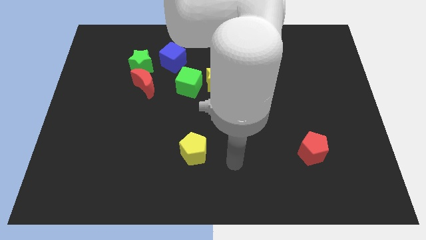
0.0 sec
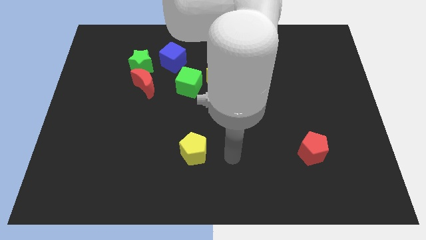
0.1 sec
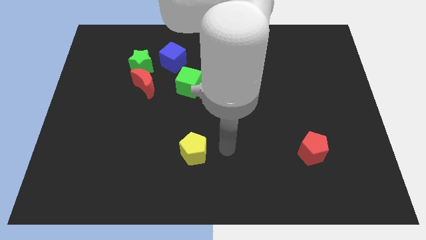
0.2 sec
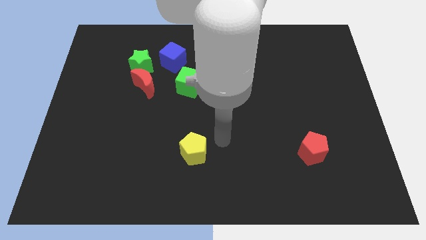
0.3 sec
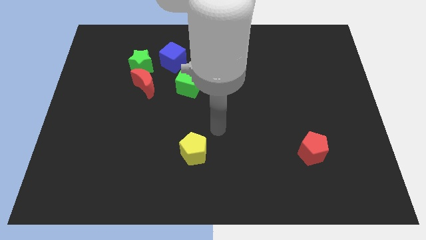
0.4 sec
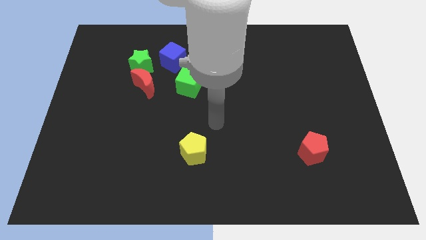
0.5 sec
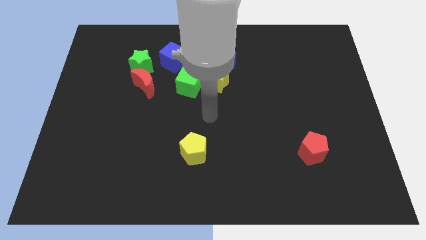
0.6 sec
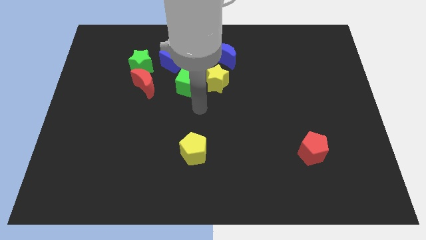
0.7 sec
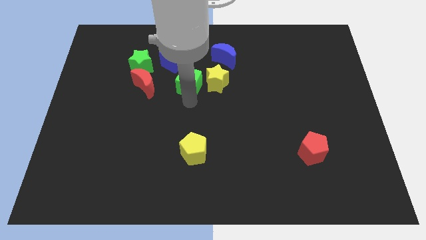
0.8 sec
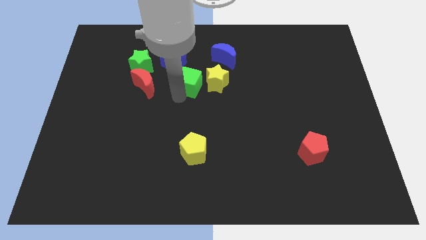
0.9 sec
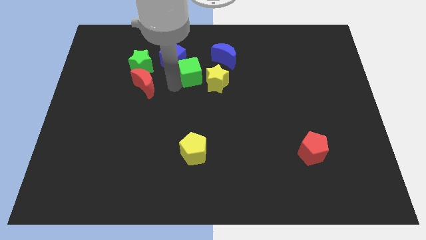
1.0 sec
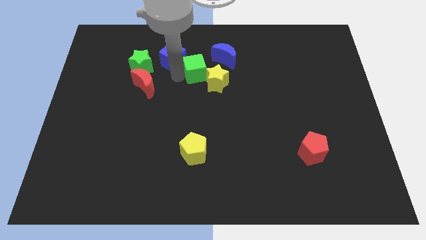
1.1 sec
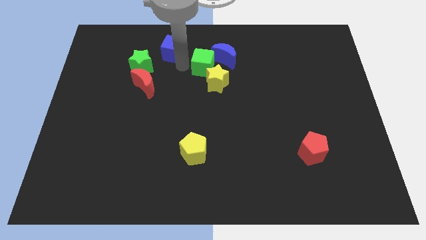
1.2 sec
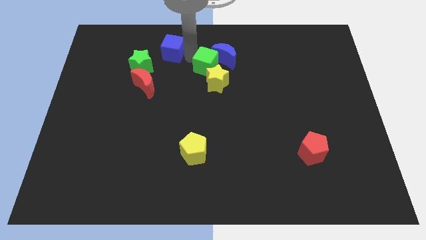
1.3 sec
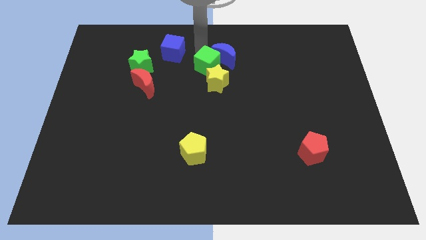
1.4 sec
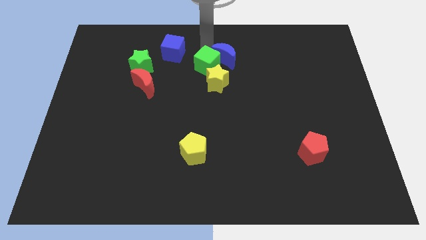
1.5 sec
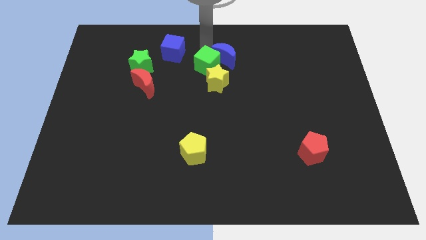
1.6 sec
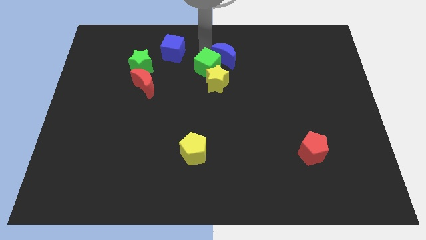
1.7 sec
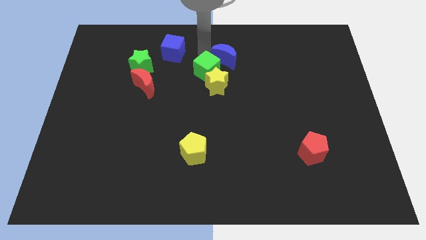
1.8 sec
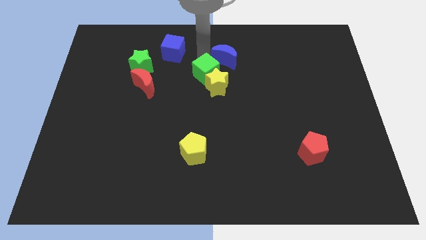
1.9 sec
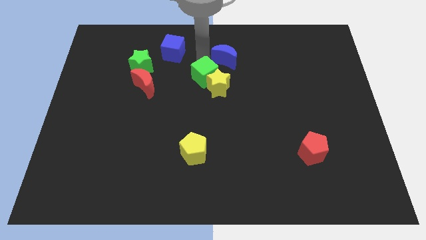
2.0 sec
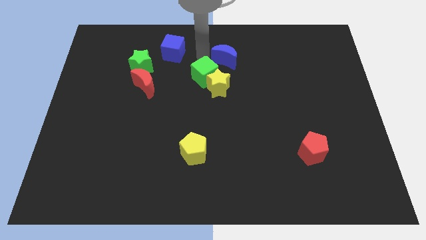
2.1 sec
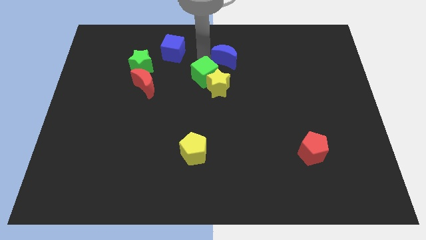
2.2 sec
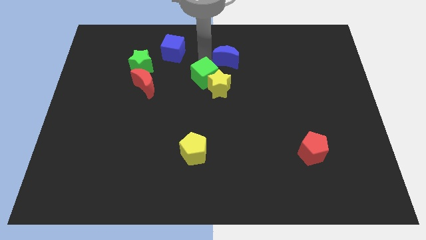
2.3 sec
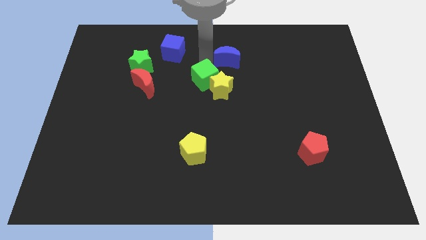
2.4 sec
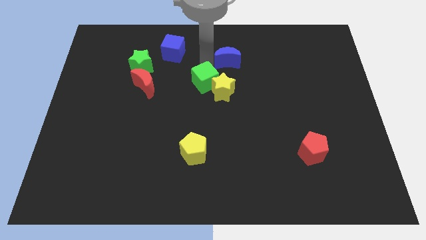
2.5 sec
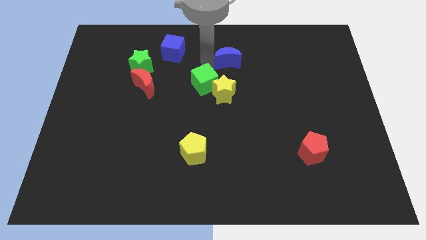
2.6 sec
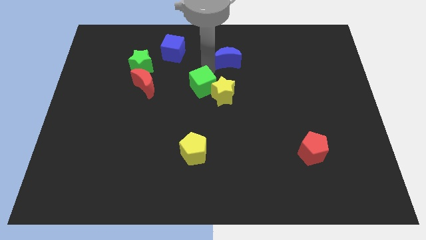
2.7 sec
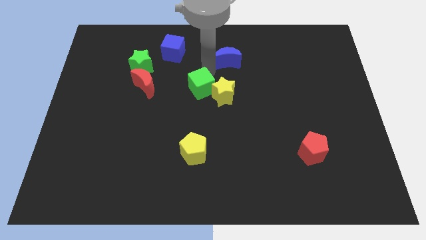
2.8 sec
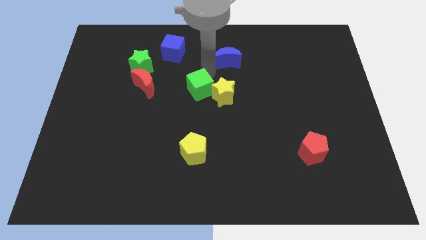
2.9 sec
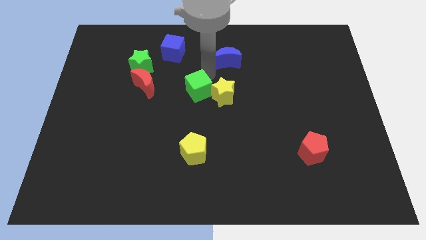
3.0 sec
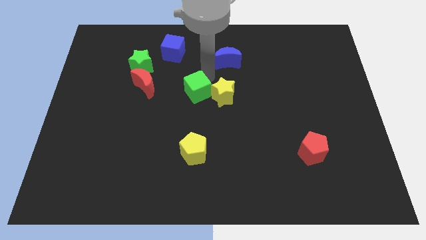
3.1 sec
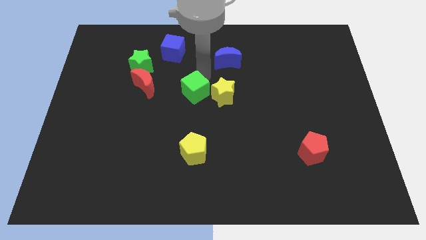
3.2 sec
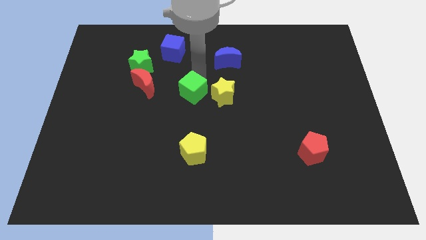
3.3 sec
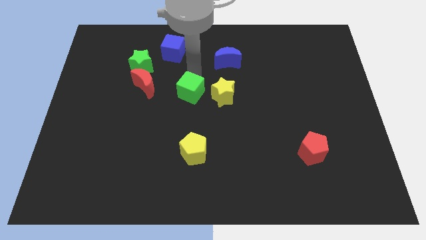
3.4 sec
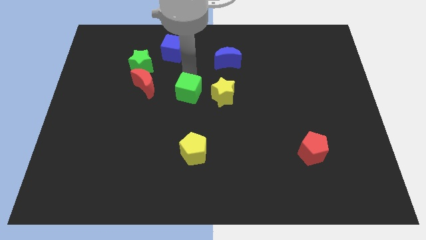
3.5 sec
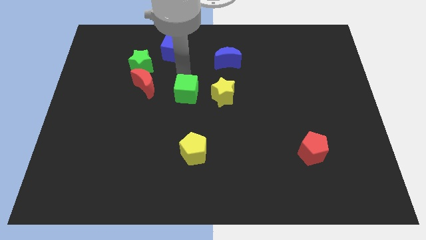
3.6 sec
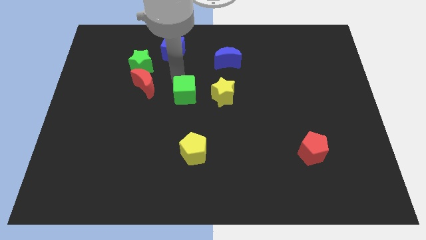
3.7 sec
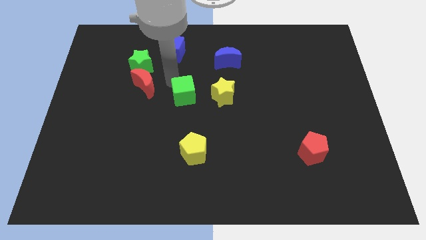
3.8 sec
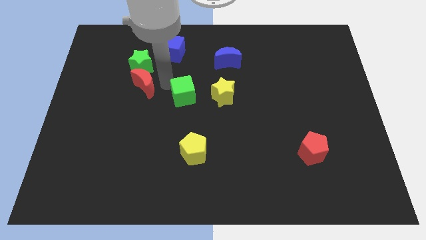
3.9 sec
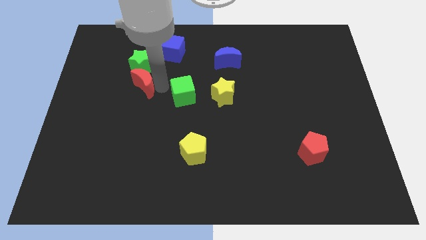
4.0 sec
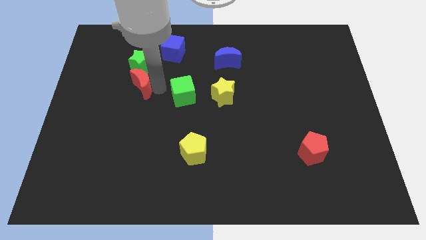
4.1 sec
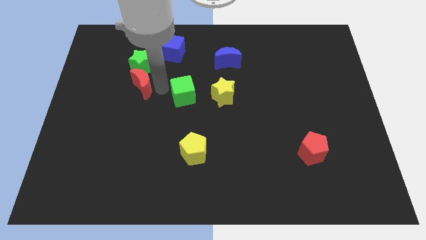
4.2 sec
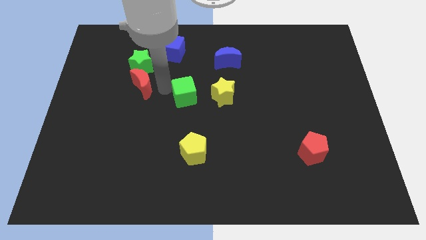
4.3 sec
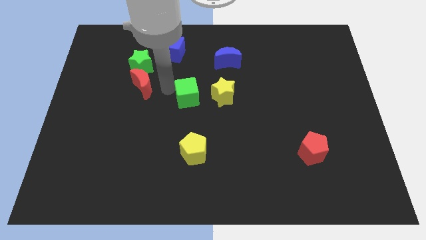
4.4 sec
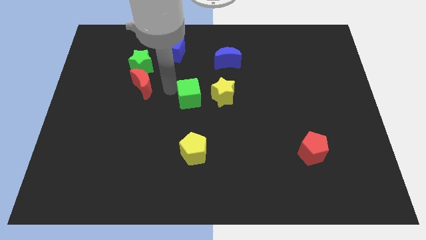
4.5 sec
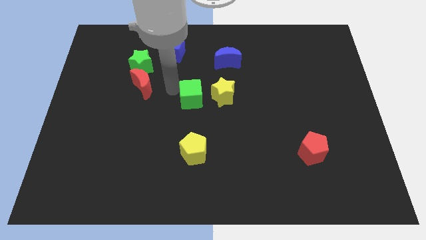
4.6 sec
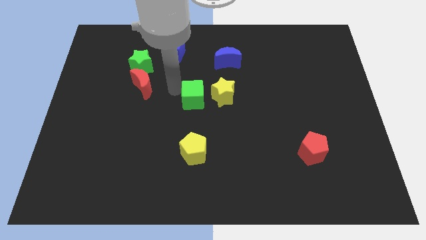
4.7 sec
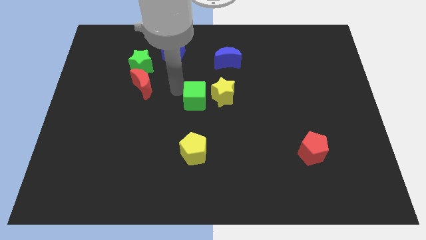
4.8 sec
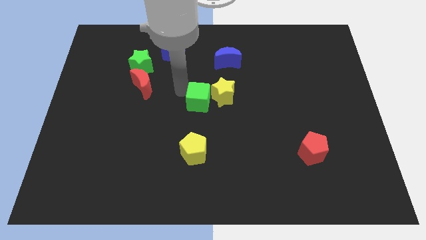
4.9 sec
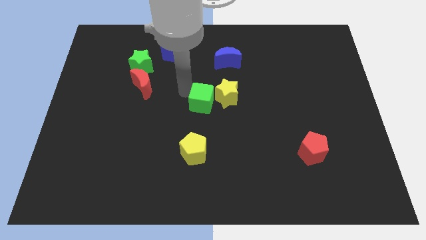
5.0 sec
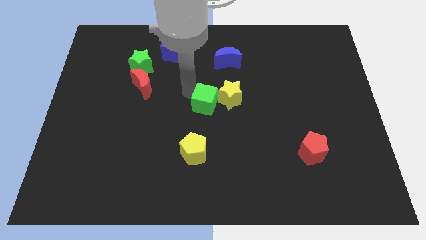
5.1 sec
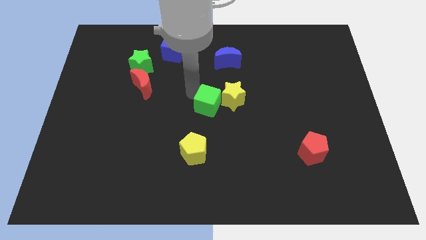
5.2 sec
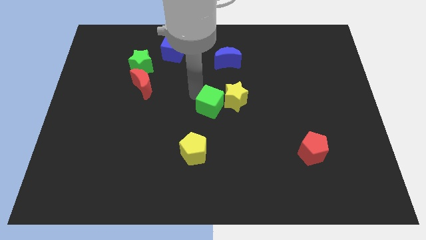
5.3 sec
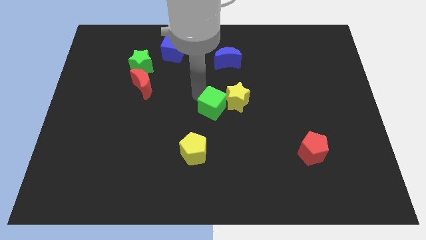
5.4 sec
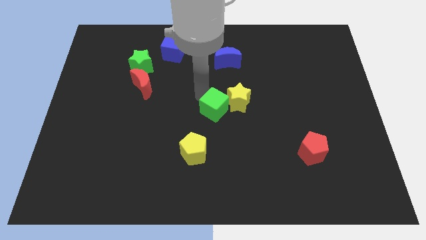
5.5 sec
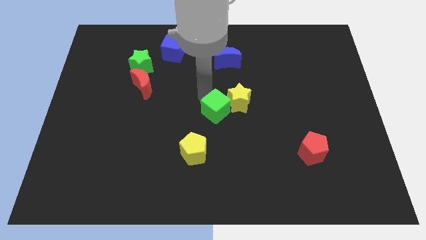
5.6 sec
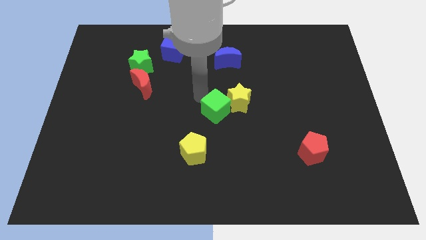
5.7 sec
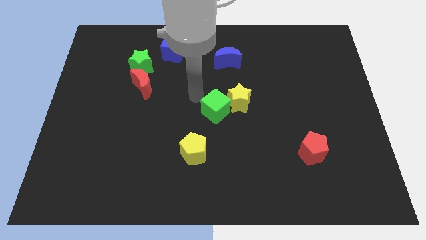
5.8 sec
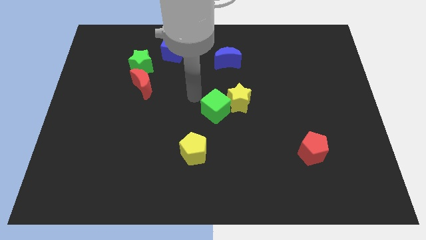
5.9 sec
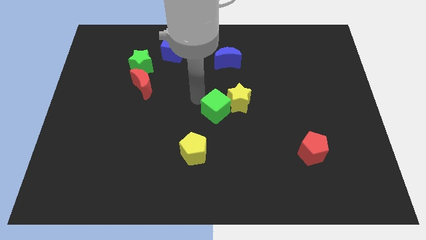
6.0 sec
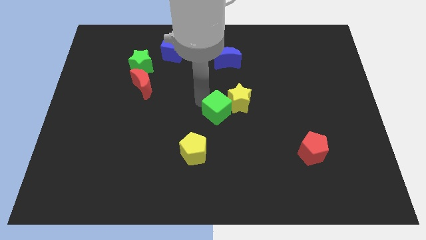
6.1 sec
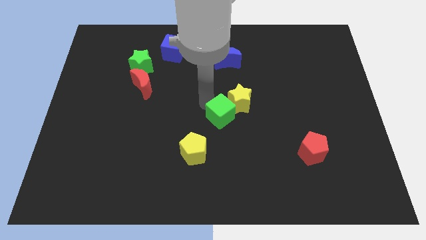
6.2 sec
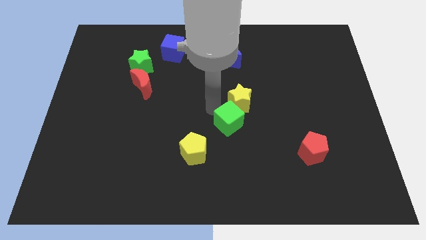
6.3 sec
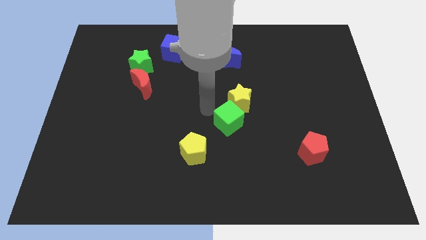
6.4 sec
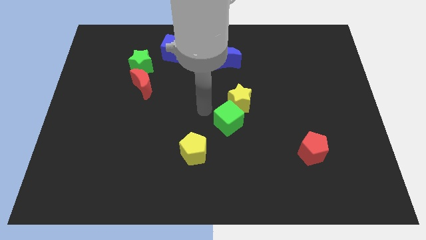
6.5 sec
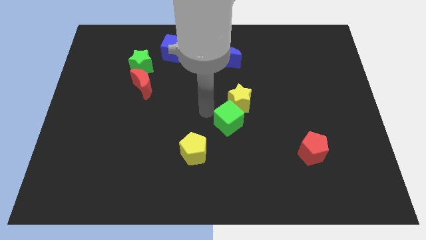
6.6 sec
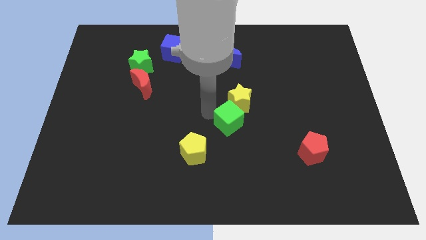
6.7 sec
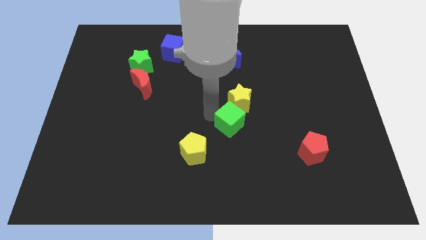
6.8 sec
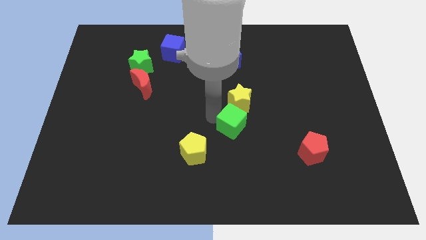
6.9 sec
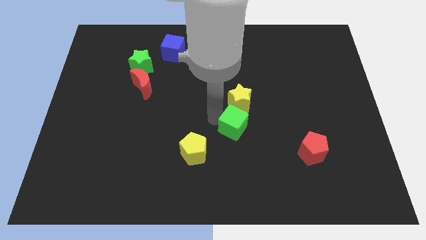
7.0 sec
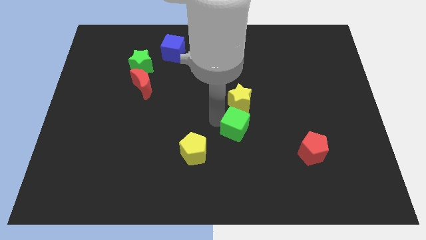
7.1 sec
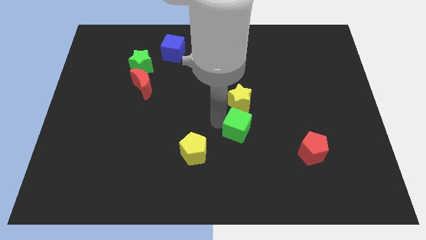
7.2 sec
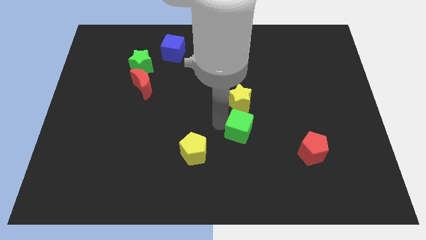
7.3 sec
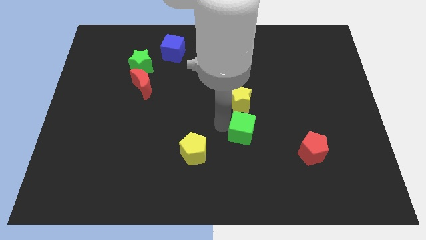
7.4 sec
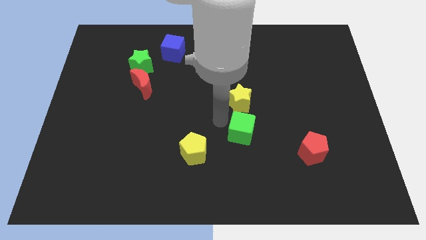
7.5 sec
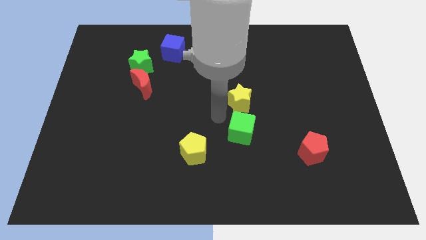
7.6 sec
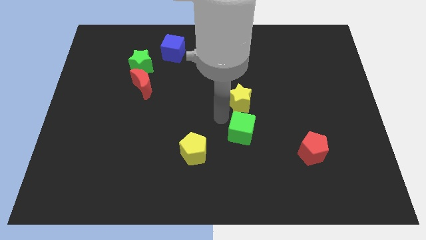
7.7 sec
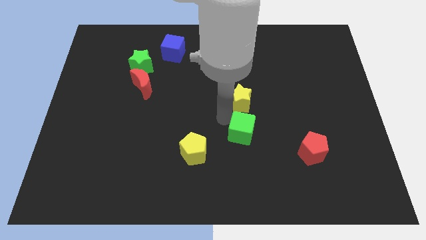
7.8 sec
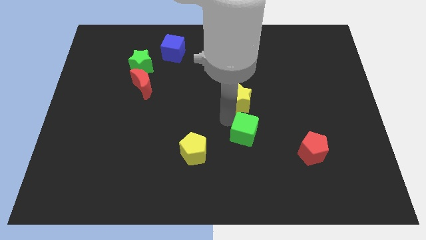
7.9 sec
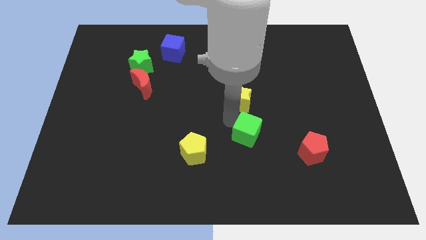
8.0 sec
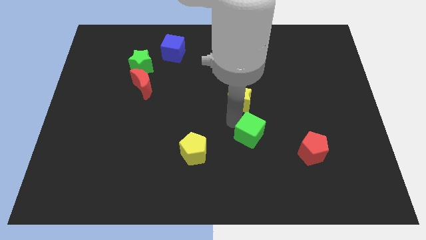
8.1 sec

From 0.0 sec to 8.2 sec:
slide the green cube downwards and right diagonally
